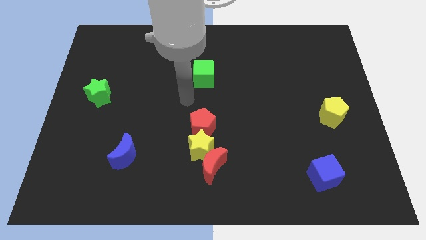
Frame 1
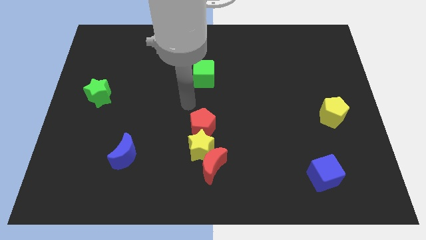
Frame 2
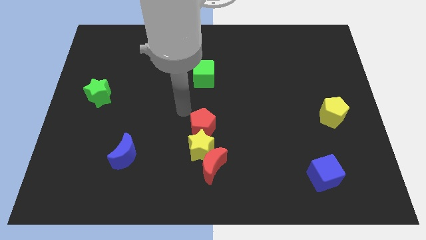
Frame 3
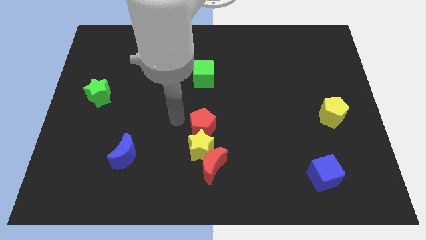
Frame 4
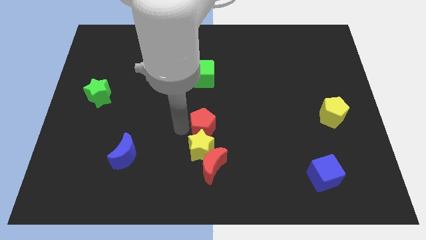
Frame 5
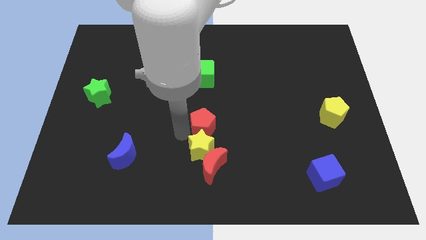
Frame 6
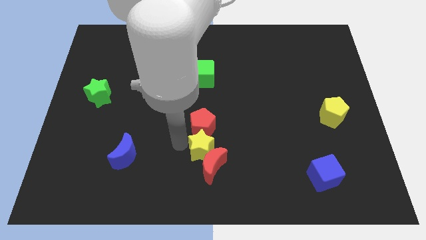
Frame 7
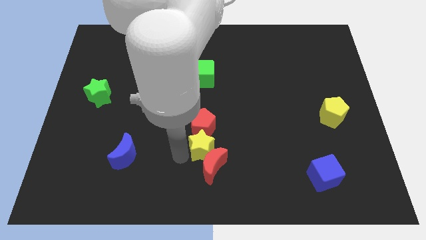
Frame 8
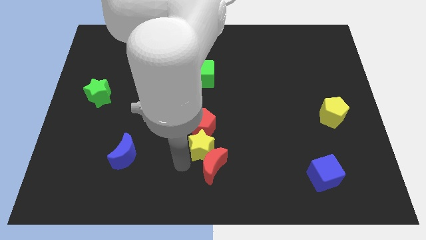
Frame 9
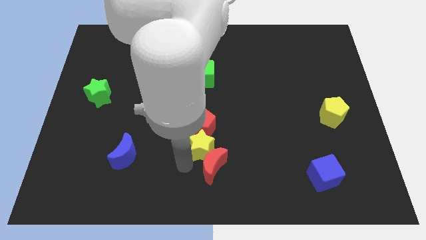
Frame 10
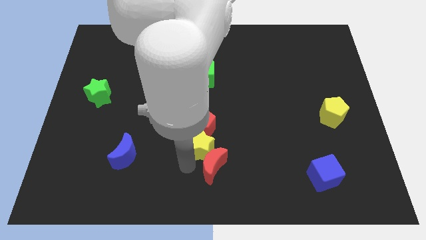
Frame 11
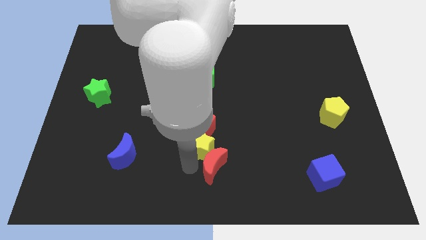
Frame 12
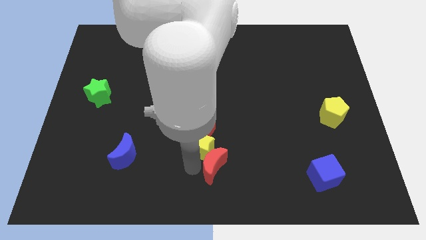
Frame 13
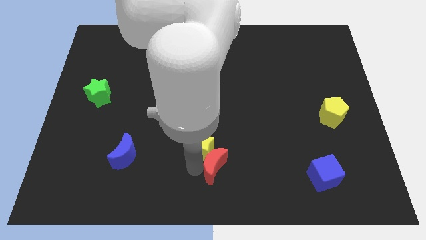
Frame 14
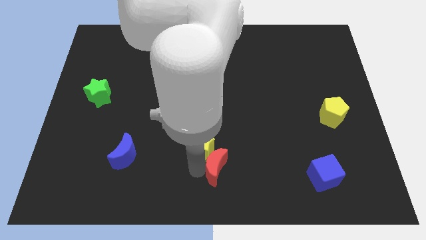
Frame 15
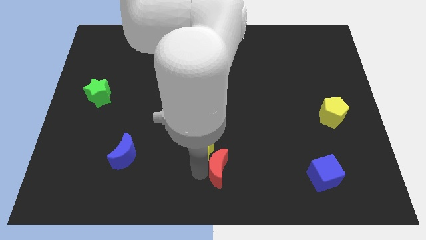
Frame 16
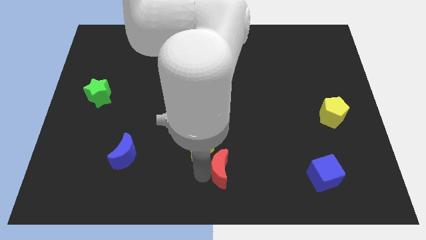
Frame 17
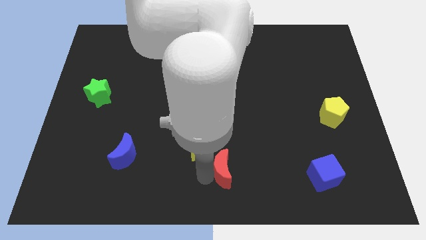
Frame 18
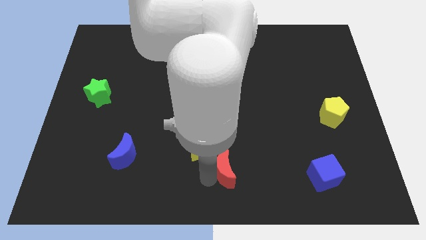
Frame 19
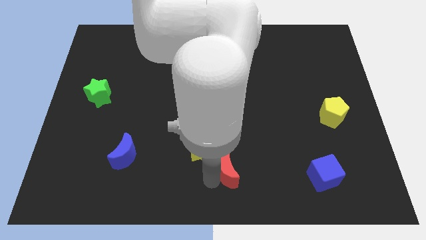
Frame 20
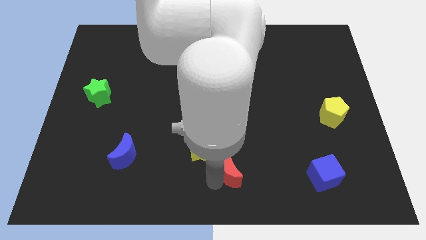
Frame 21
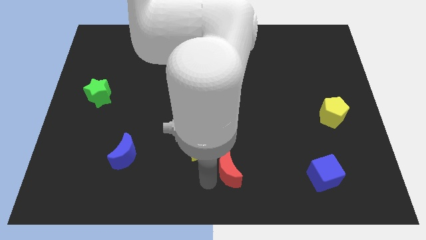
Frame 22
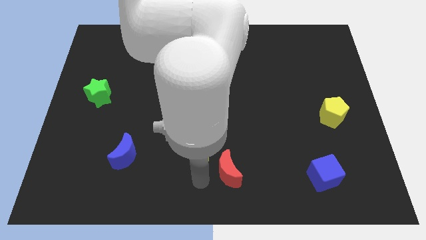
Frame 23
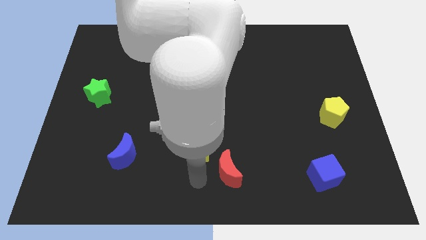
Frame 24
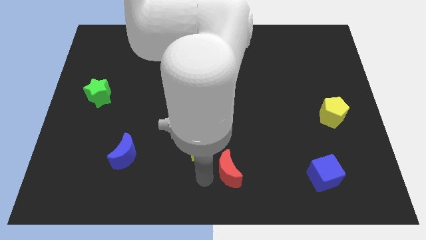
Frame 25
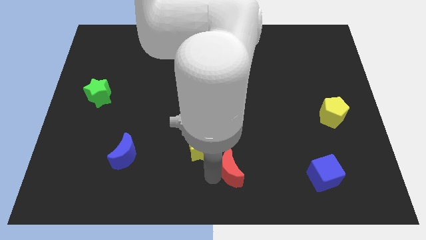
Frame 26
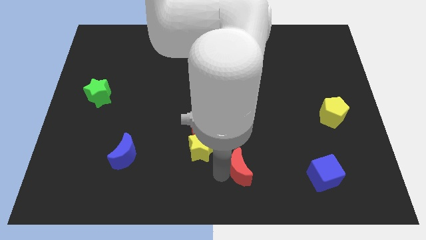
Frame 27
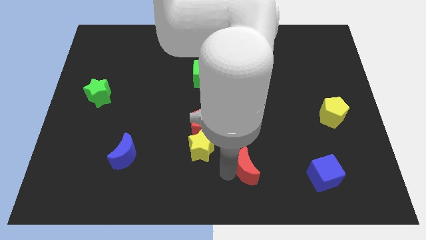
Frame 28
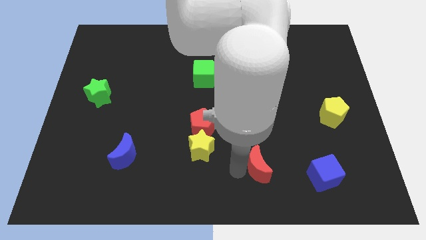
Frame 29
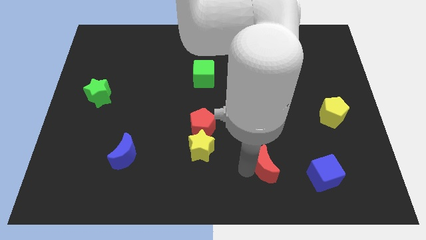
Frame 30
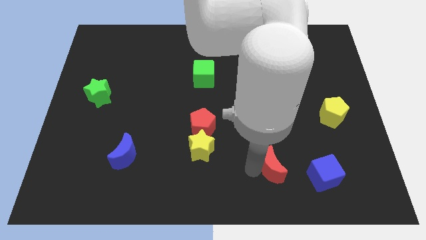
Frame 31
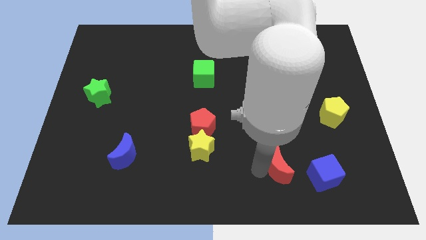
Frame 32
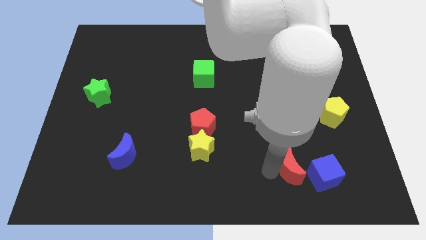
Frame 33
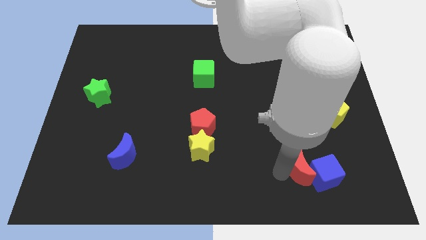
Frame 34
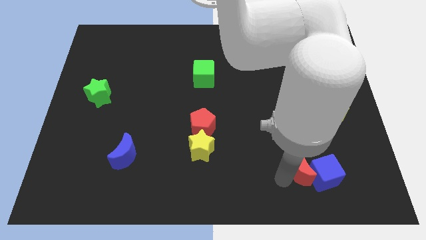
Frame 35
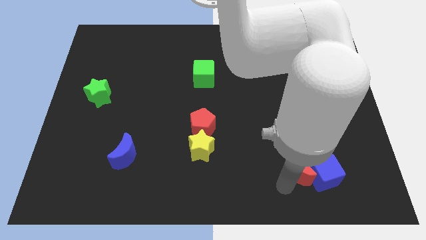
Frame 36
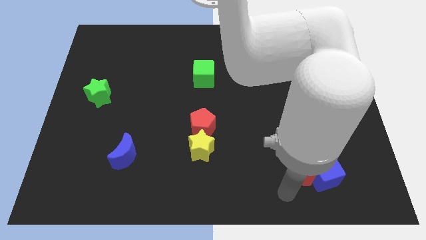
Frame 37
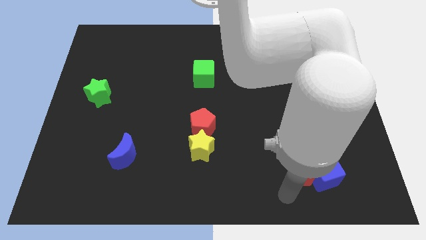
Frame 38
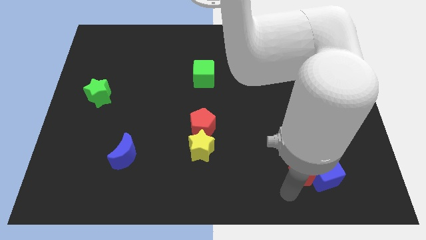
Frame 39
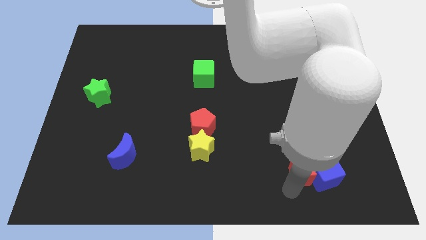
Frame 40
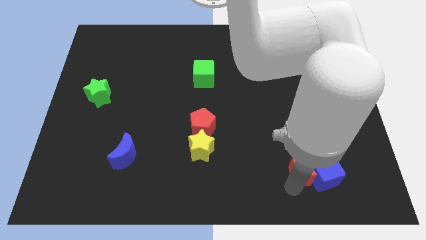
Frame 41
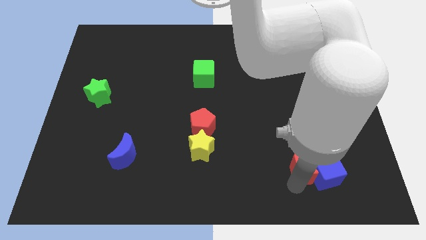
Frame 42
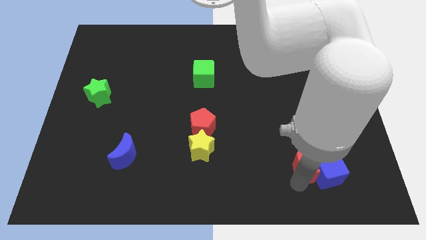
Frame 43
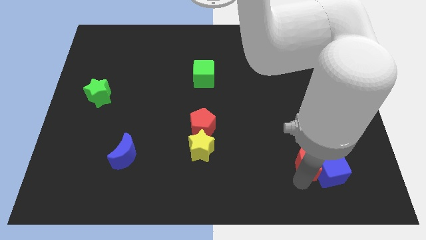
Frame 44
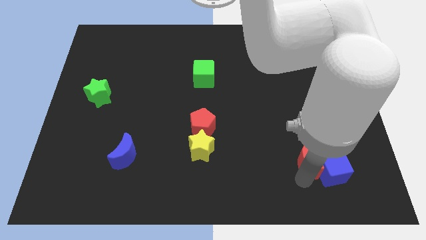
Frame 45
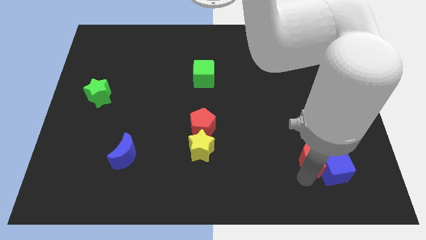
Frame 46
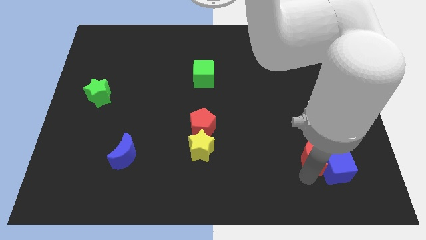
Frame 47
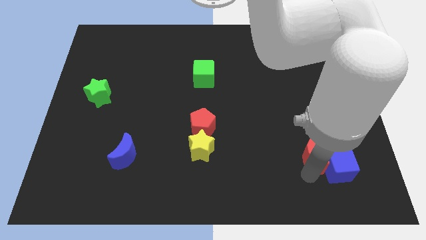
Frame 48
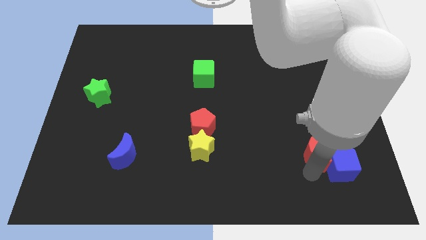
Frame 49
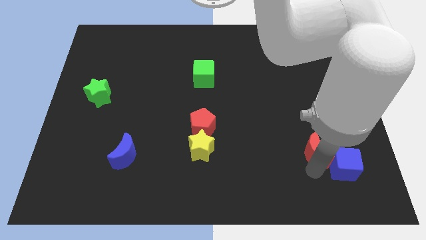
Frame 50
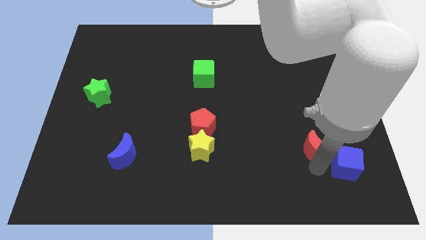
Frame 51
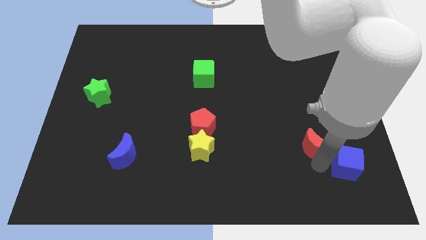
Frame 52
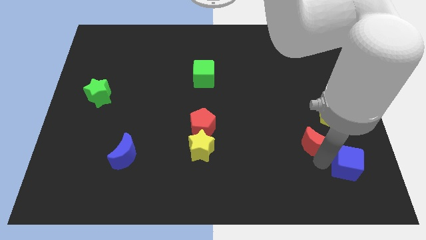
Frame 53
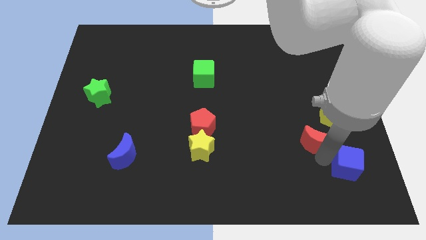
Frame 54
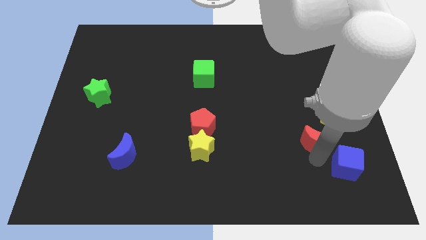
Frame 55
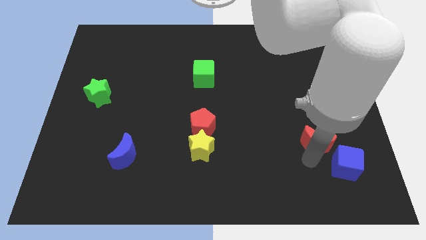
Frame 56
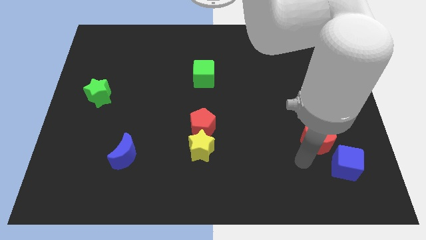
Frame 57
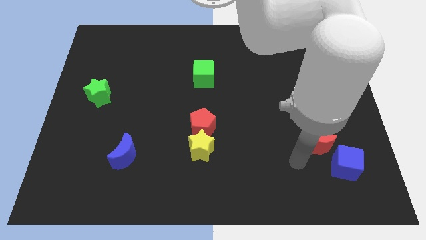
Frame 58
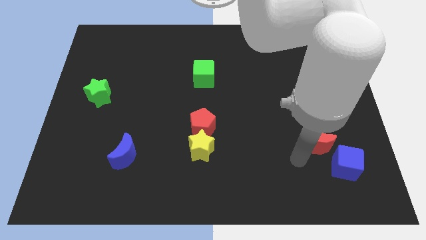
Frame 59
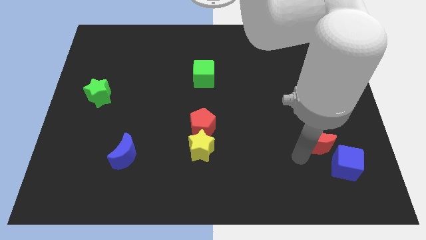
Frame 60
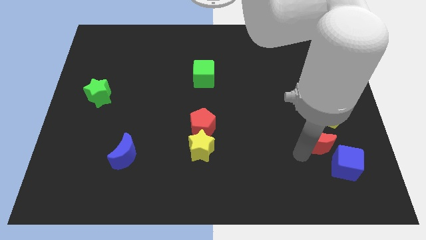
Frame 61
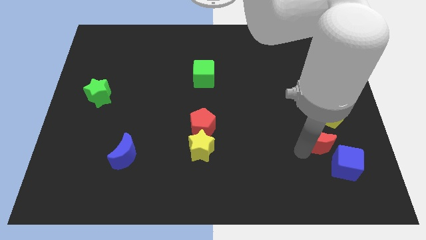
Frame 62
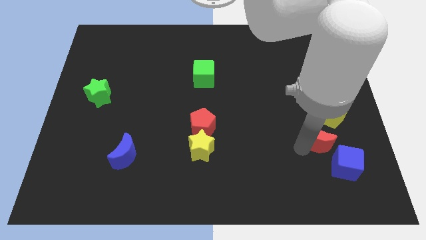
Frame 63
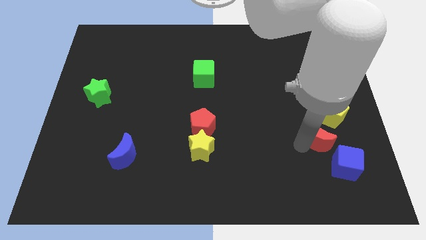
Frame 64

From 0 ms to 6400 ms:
push the red moon to the top of the blue cube

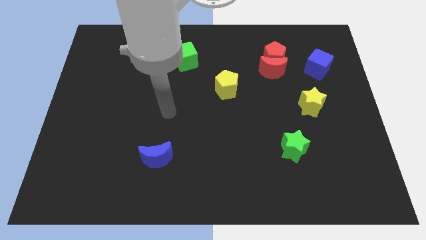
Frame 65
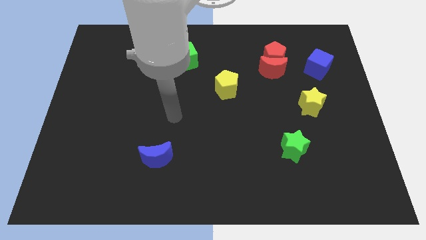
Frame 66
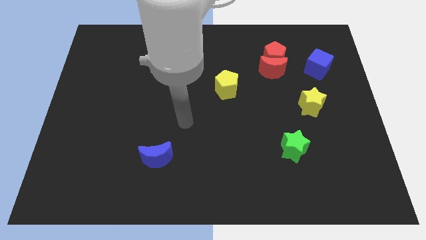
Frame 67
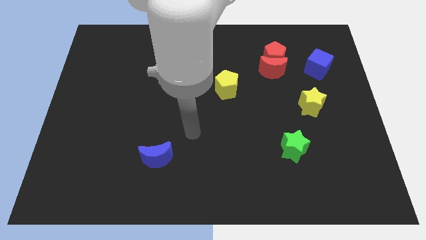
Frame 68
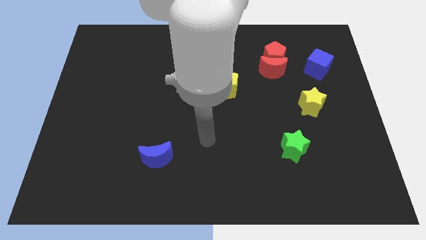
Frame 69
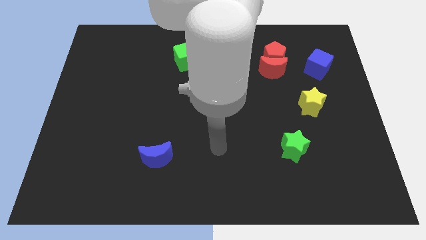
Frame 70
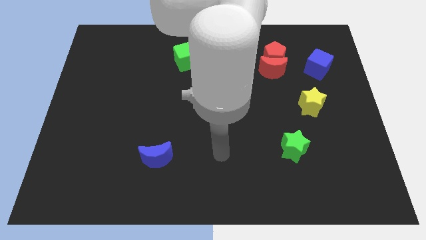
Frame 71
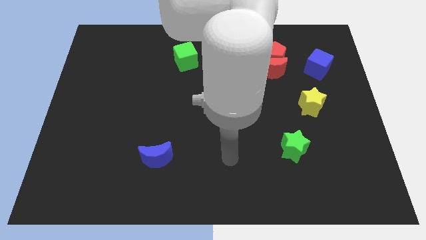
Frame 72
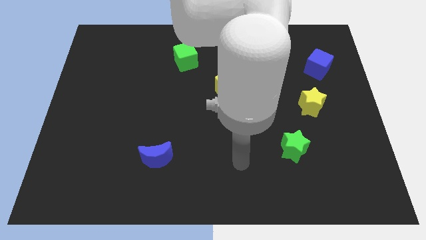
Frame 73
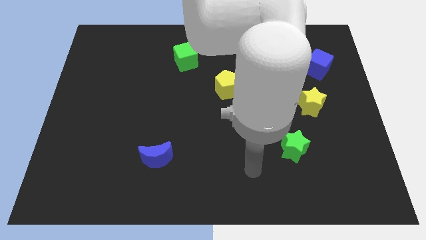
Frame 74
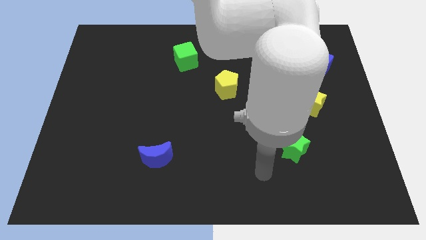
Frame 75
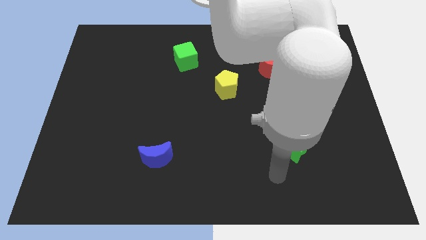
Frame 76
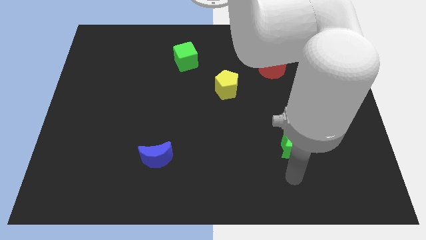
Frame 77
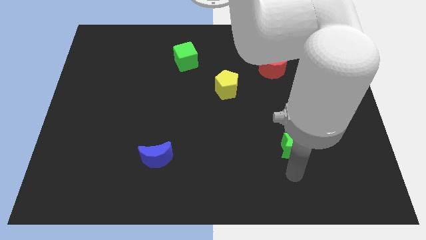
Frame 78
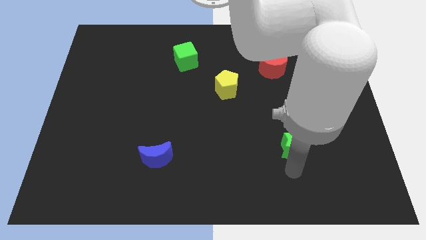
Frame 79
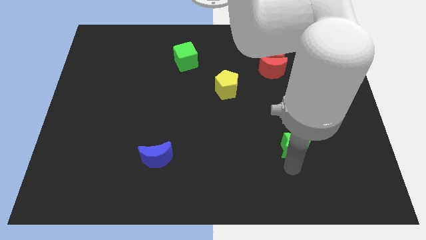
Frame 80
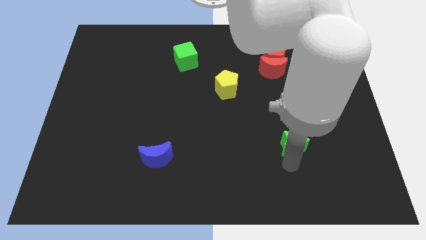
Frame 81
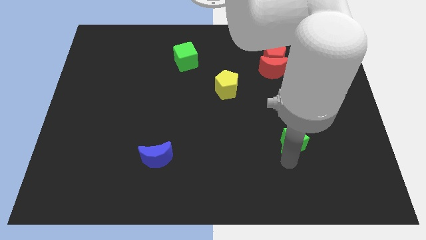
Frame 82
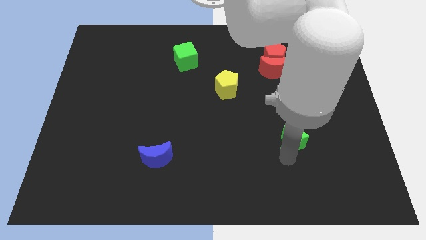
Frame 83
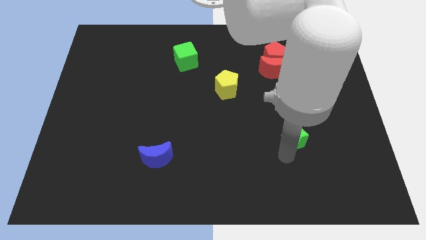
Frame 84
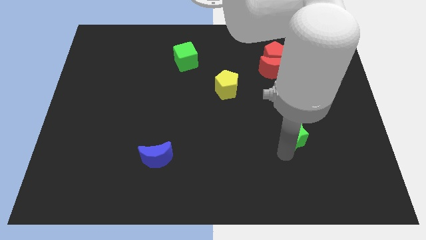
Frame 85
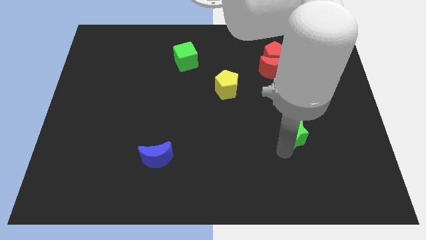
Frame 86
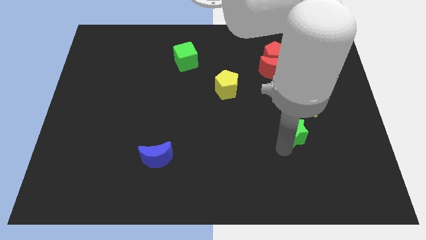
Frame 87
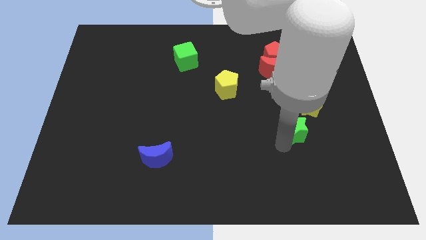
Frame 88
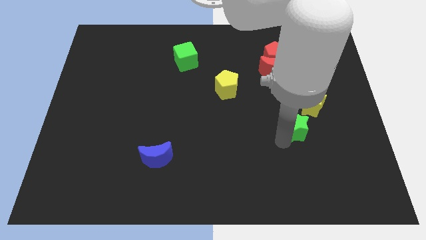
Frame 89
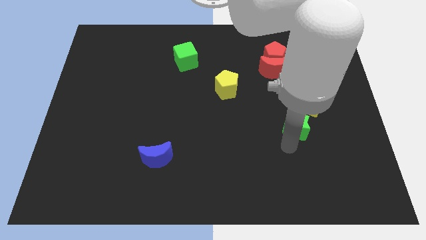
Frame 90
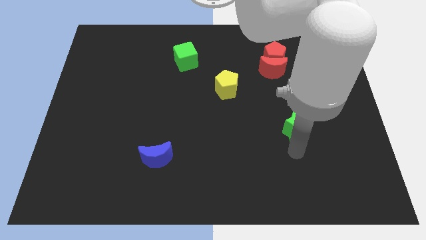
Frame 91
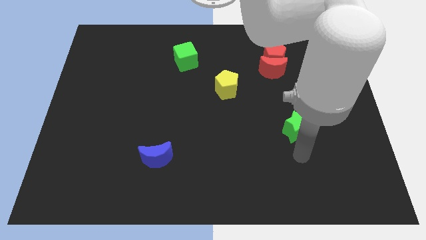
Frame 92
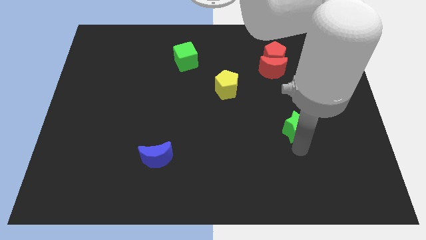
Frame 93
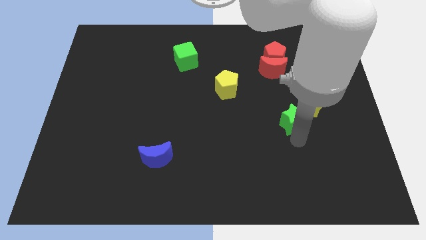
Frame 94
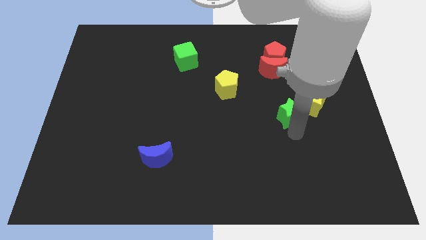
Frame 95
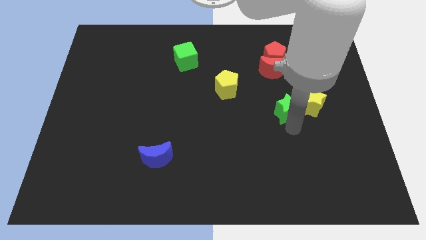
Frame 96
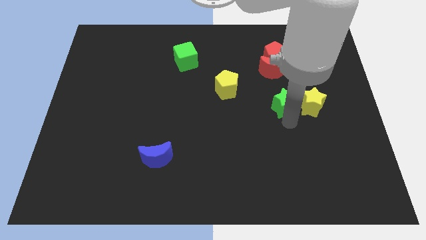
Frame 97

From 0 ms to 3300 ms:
push the green star to the top left side of the yellow star
